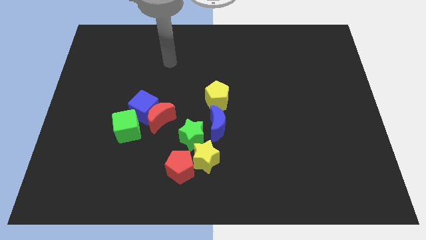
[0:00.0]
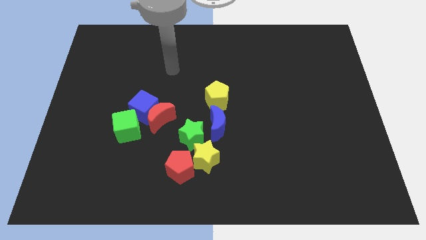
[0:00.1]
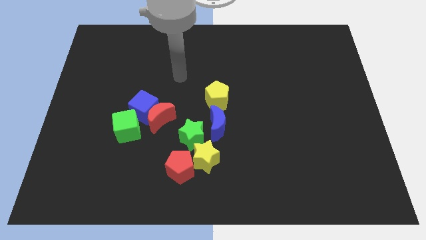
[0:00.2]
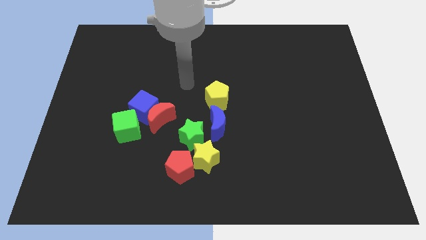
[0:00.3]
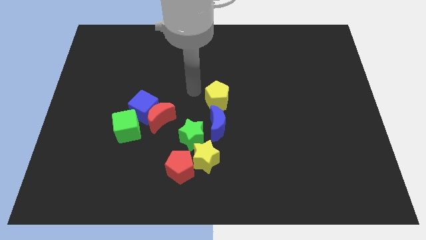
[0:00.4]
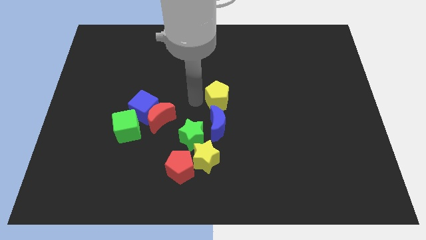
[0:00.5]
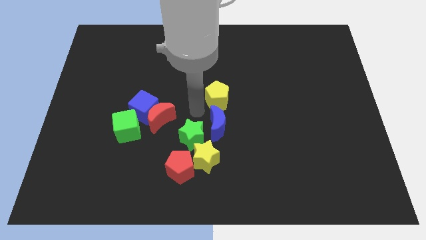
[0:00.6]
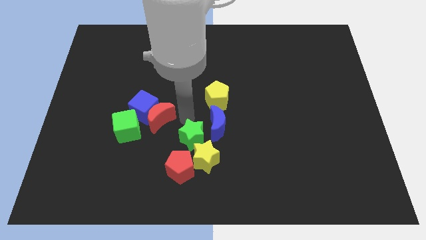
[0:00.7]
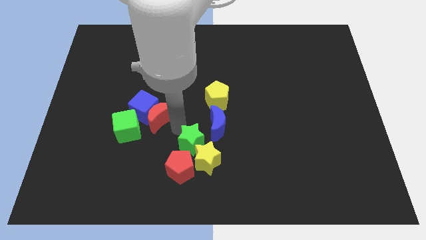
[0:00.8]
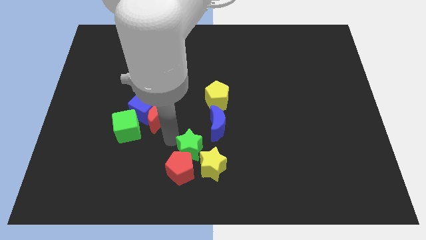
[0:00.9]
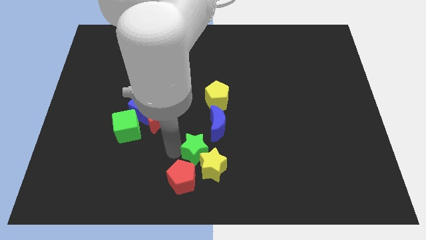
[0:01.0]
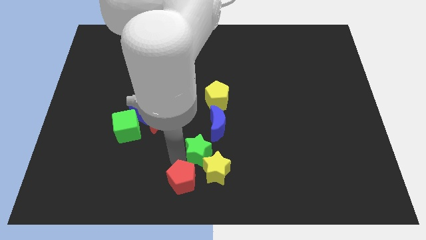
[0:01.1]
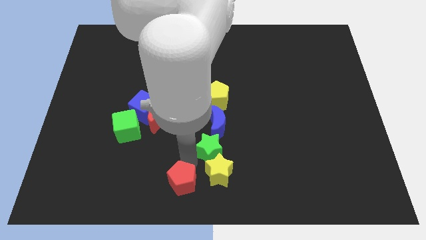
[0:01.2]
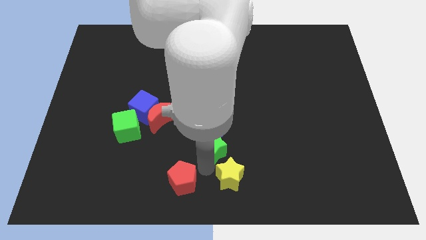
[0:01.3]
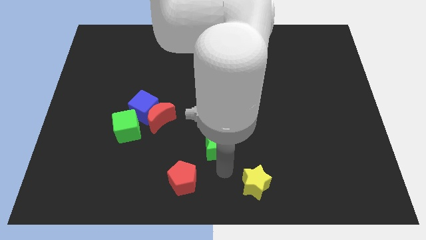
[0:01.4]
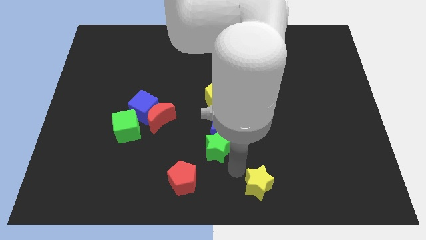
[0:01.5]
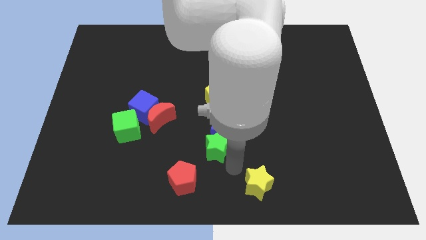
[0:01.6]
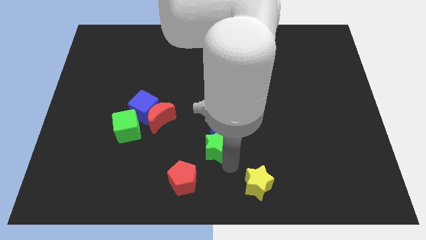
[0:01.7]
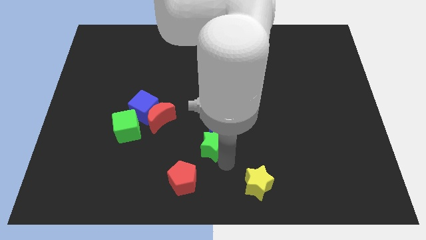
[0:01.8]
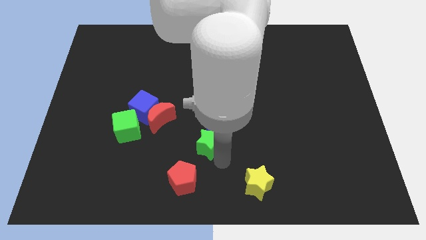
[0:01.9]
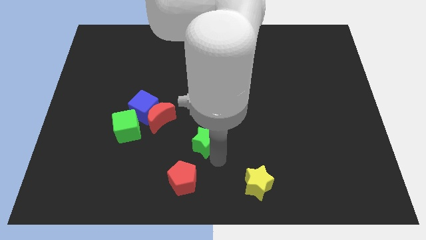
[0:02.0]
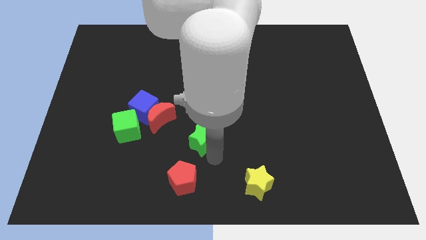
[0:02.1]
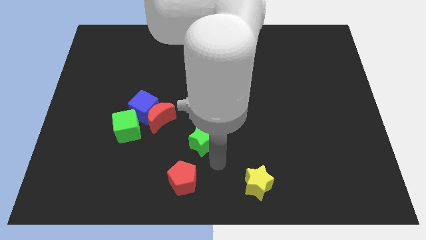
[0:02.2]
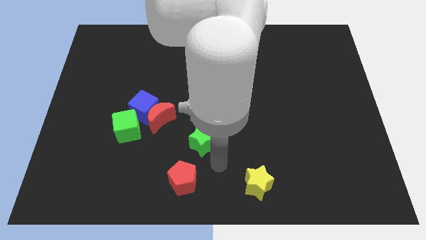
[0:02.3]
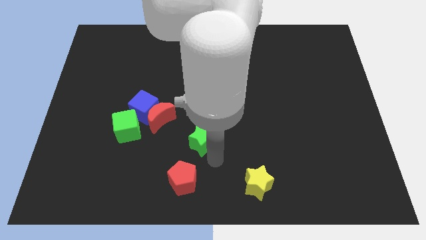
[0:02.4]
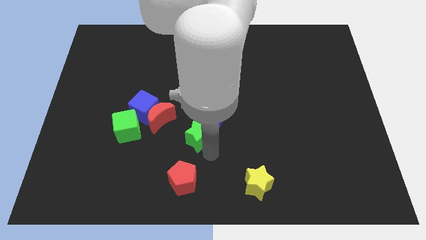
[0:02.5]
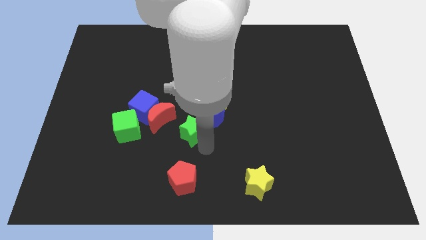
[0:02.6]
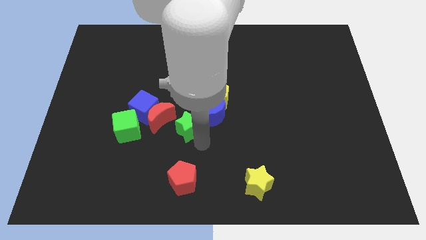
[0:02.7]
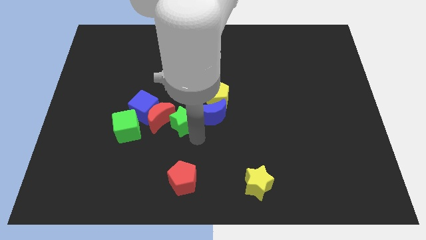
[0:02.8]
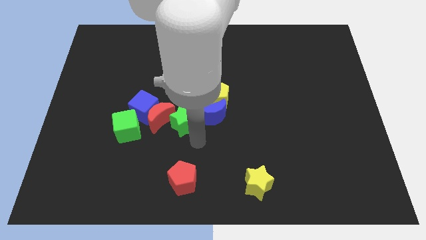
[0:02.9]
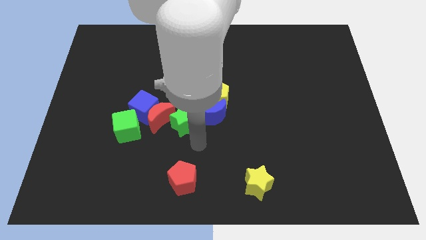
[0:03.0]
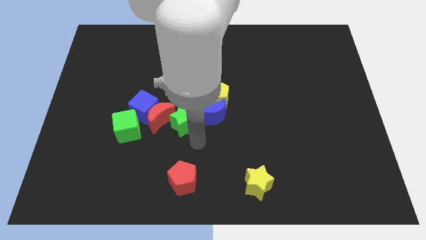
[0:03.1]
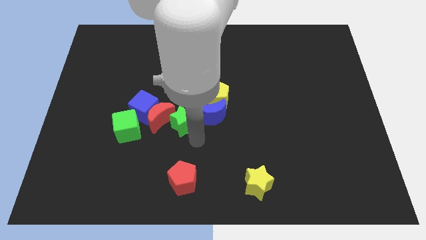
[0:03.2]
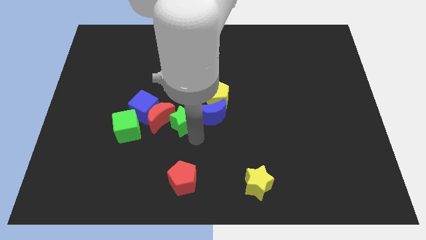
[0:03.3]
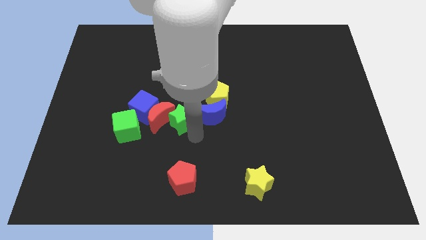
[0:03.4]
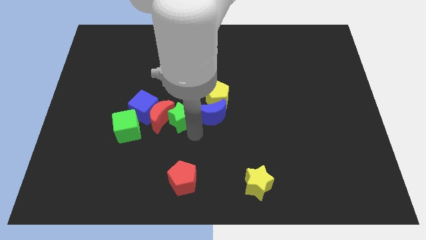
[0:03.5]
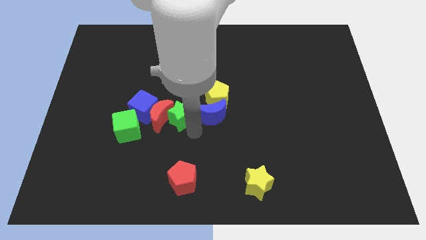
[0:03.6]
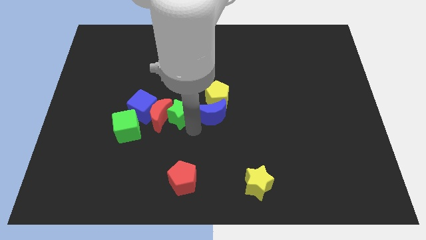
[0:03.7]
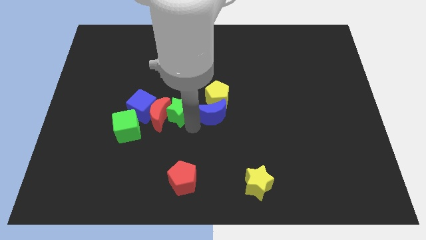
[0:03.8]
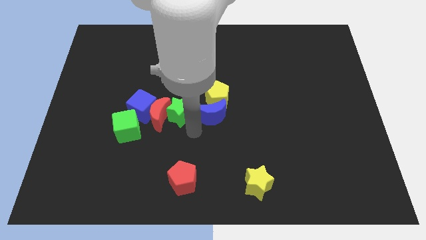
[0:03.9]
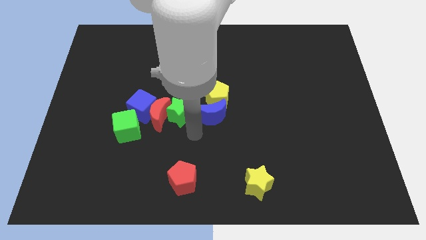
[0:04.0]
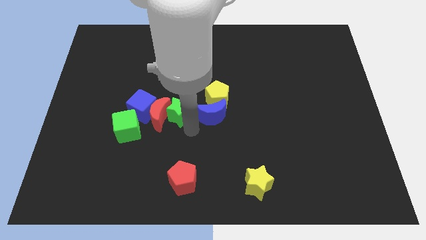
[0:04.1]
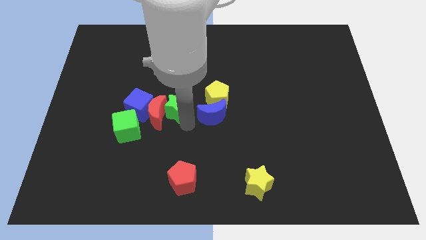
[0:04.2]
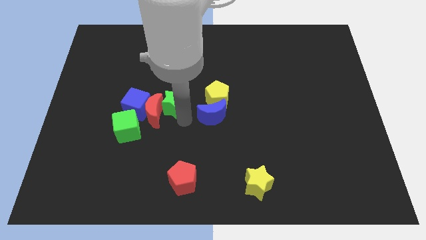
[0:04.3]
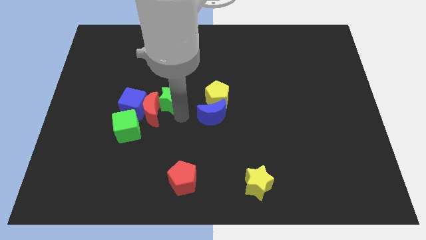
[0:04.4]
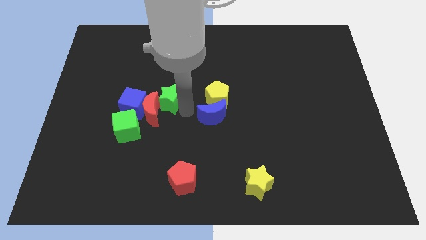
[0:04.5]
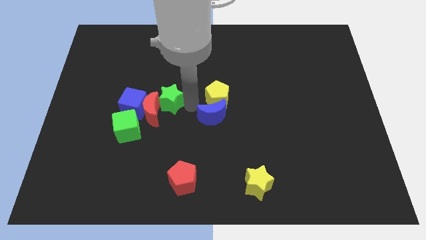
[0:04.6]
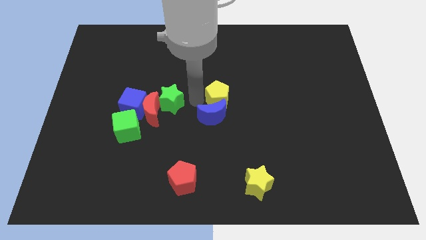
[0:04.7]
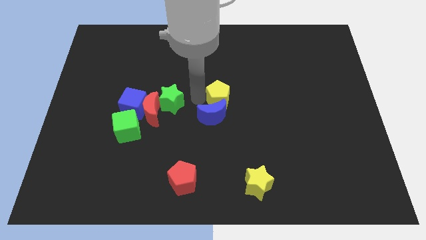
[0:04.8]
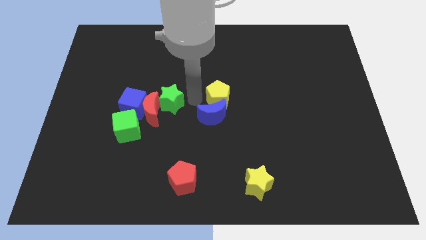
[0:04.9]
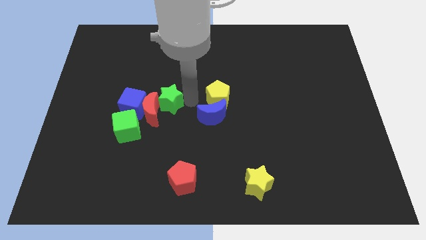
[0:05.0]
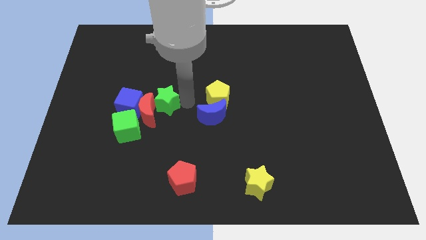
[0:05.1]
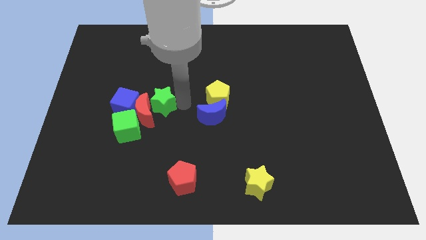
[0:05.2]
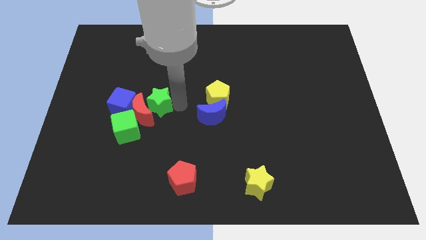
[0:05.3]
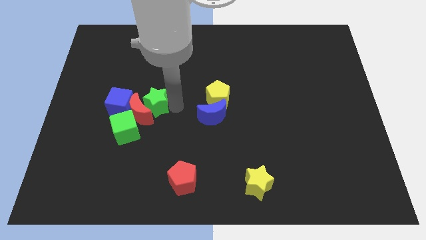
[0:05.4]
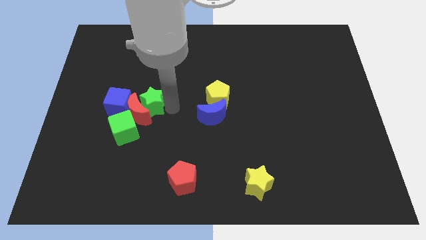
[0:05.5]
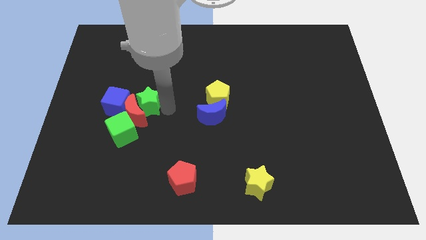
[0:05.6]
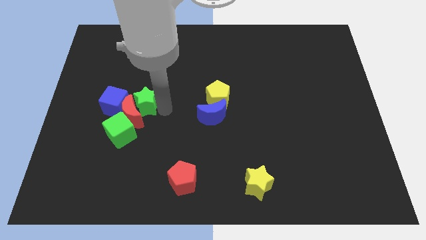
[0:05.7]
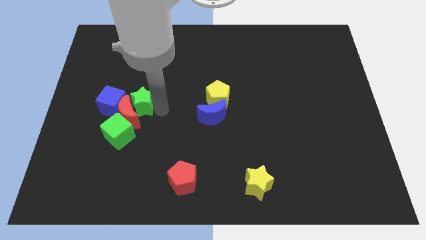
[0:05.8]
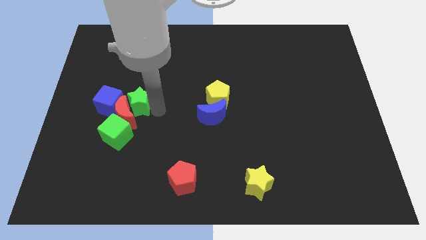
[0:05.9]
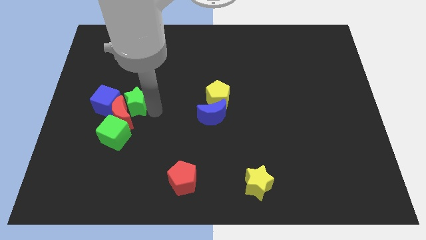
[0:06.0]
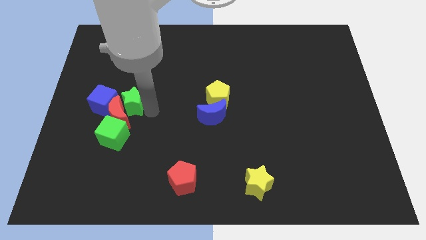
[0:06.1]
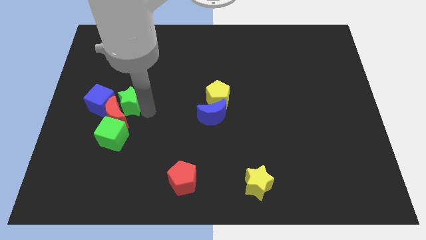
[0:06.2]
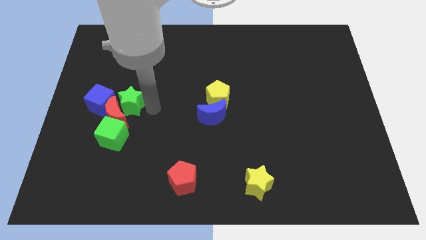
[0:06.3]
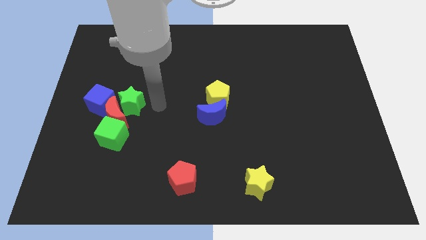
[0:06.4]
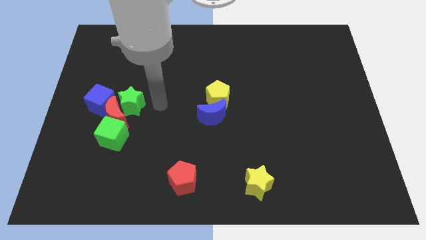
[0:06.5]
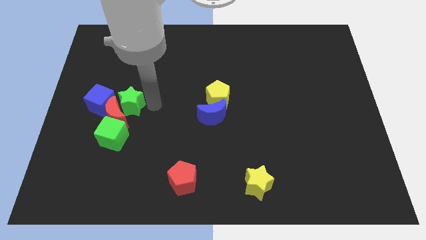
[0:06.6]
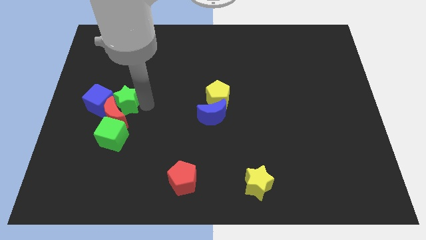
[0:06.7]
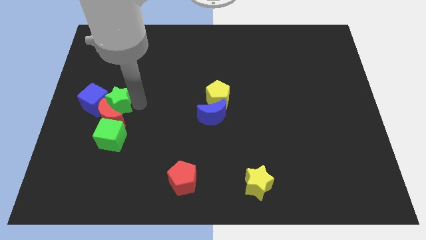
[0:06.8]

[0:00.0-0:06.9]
move the green star to the blue cube
